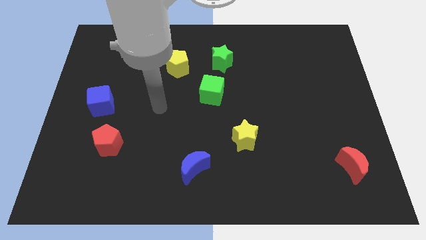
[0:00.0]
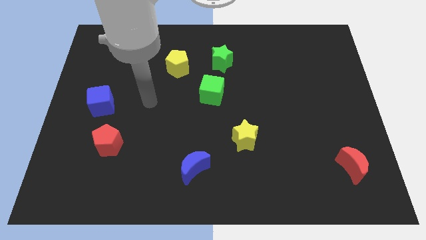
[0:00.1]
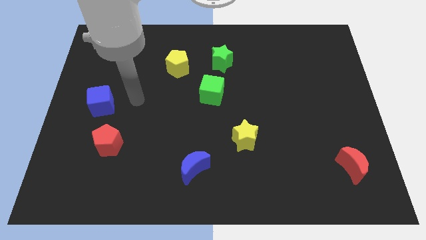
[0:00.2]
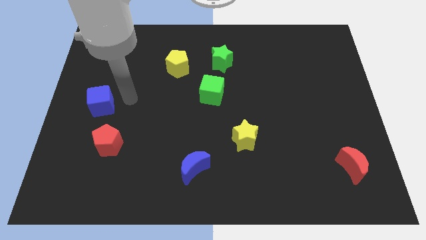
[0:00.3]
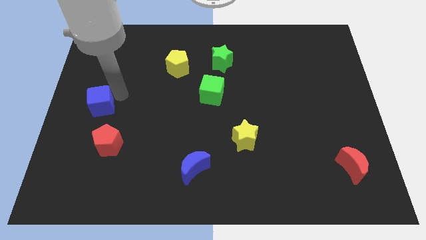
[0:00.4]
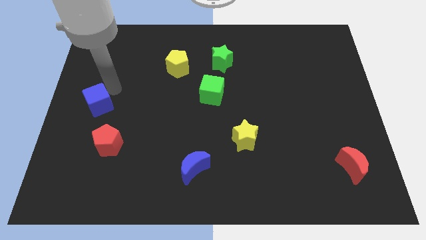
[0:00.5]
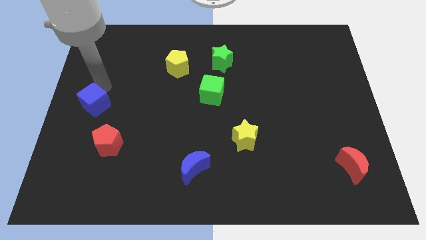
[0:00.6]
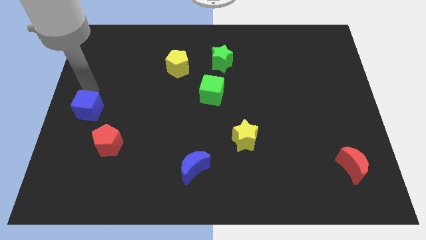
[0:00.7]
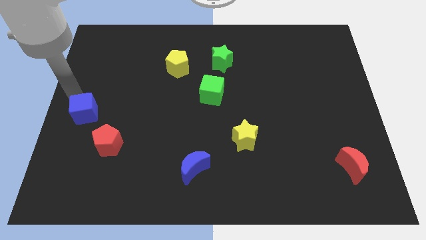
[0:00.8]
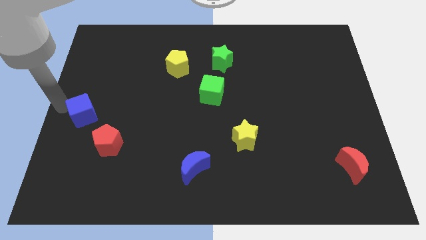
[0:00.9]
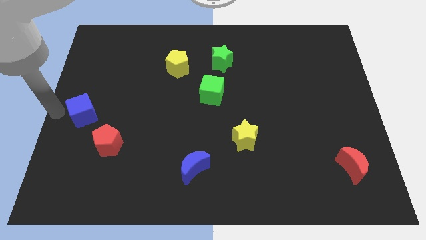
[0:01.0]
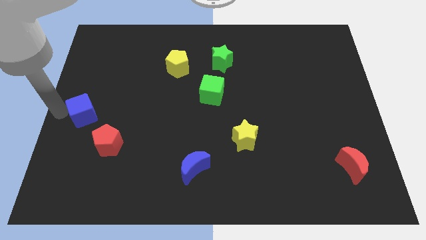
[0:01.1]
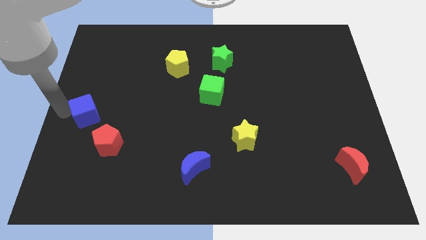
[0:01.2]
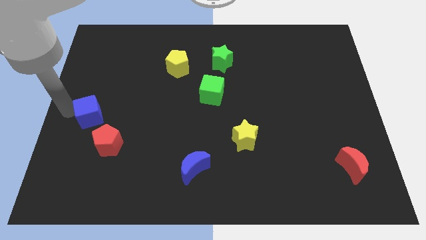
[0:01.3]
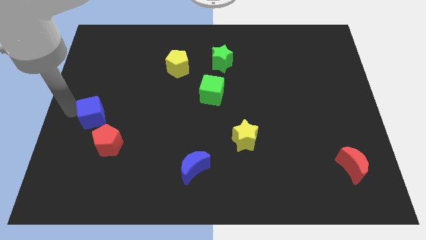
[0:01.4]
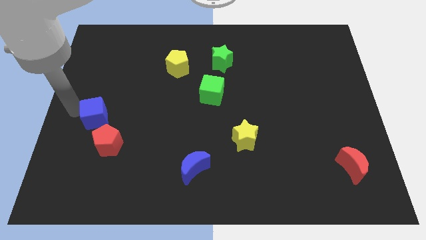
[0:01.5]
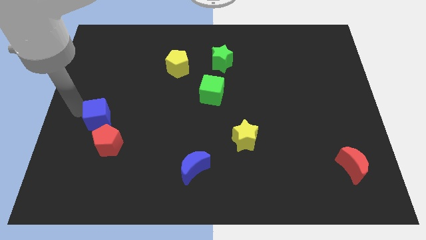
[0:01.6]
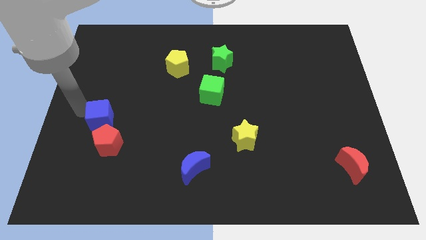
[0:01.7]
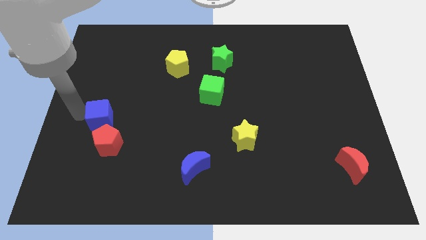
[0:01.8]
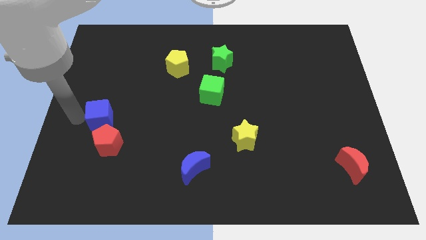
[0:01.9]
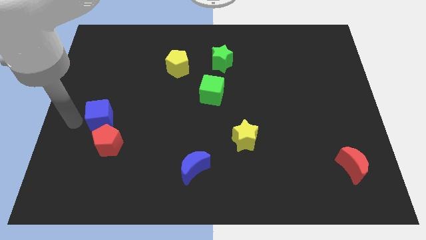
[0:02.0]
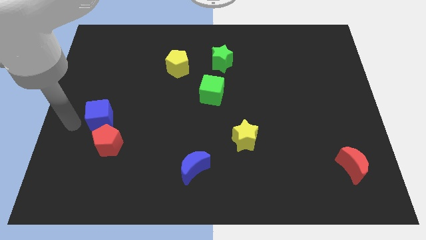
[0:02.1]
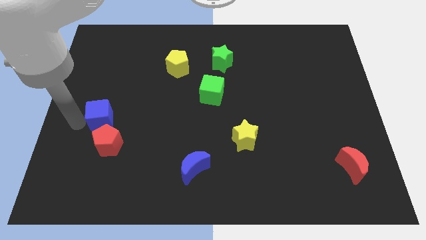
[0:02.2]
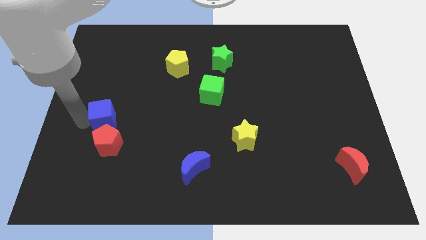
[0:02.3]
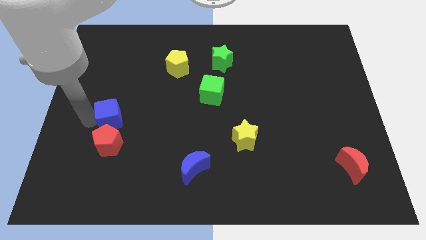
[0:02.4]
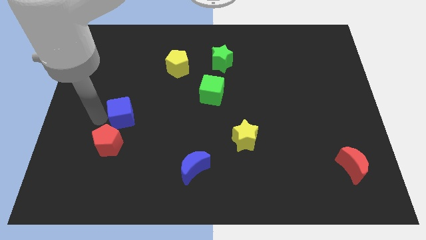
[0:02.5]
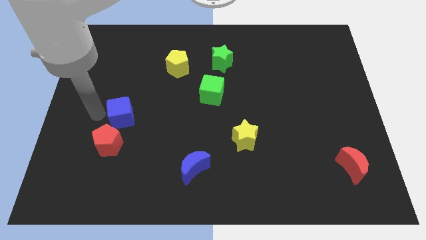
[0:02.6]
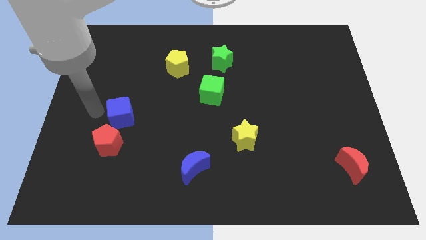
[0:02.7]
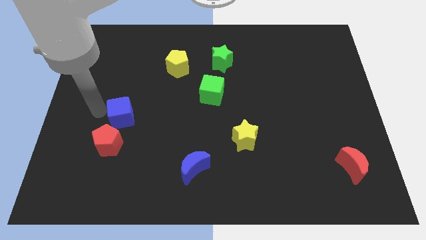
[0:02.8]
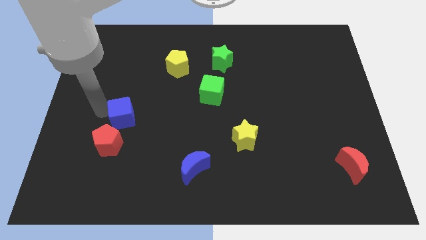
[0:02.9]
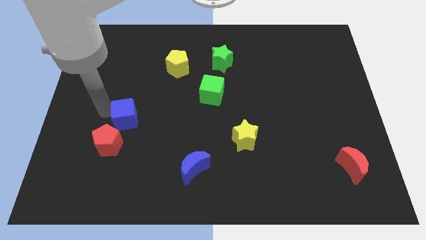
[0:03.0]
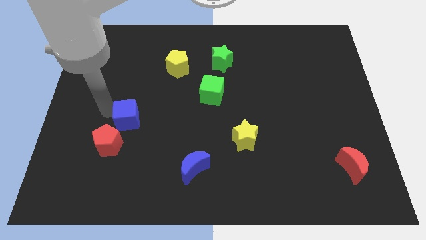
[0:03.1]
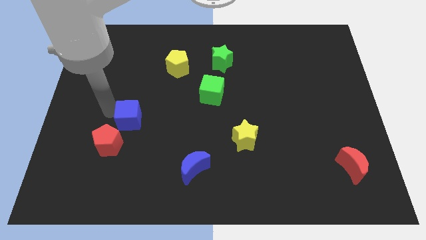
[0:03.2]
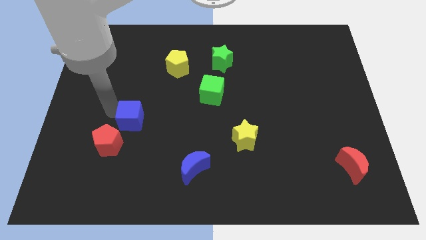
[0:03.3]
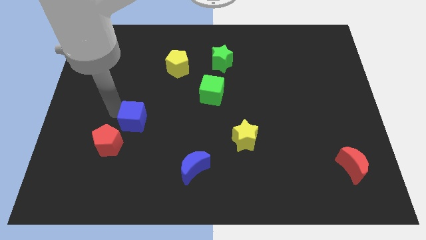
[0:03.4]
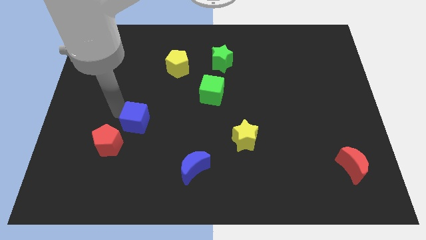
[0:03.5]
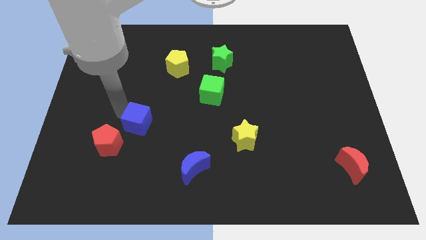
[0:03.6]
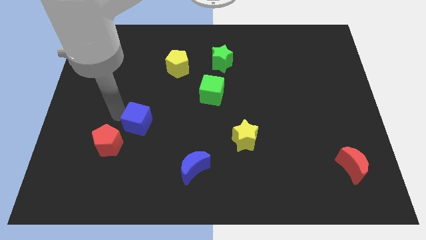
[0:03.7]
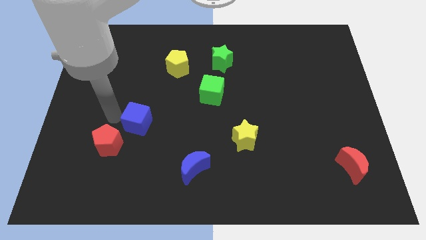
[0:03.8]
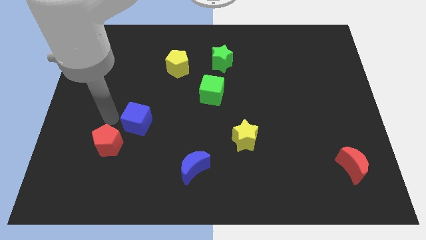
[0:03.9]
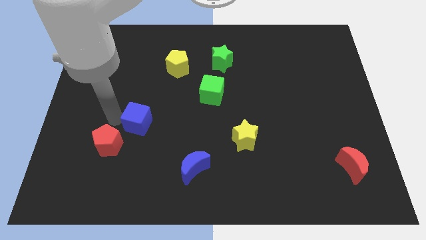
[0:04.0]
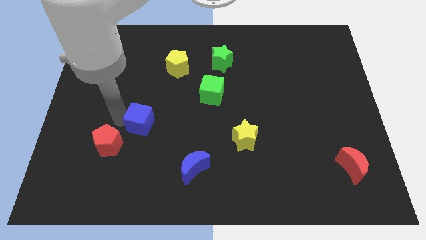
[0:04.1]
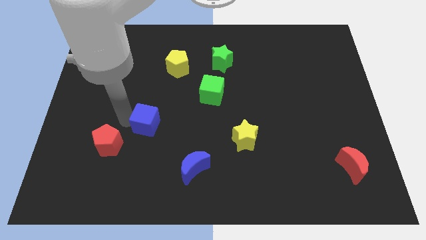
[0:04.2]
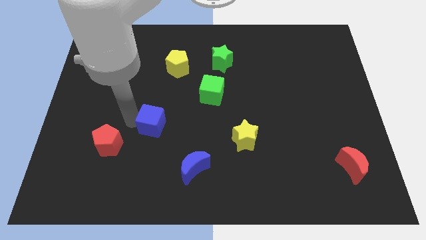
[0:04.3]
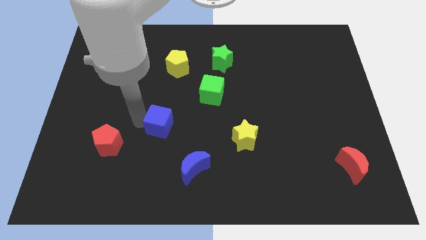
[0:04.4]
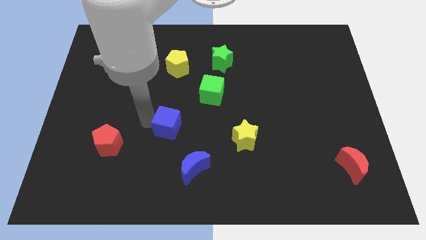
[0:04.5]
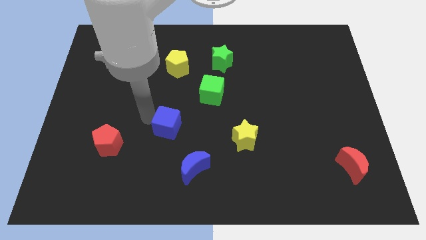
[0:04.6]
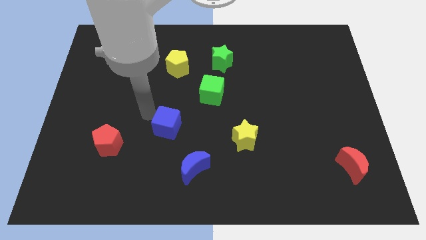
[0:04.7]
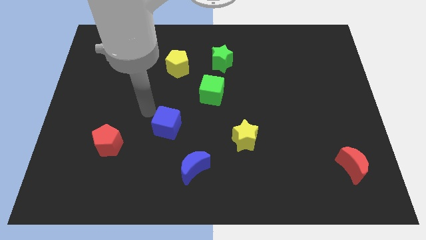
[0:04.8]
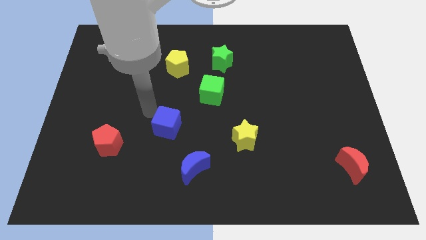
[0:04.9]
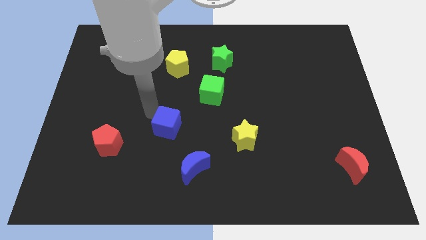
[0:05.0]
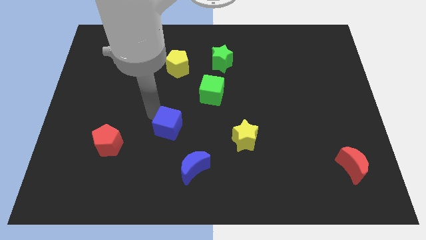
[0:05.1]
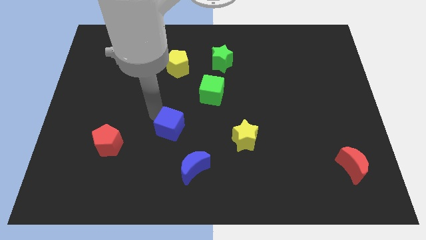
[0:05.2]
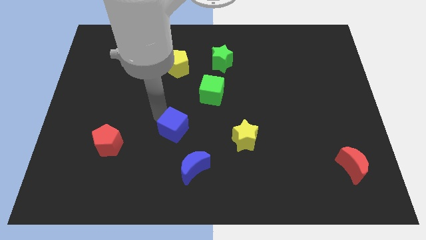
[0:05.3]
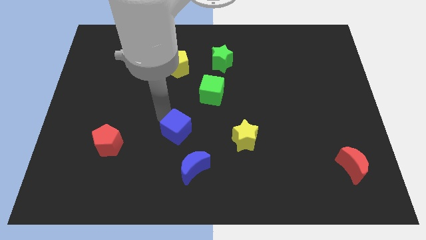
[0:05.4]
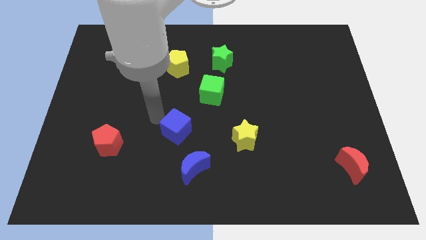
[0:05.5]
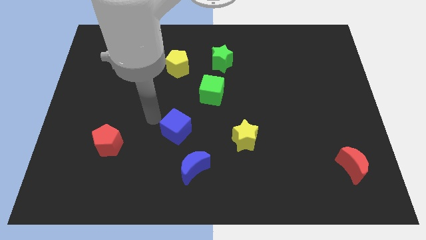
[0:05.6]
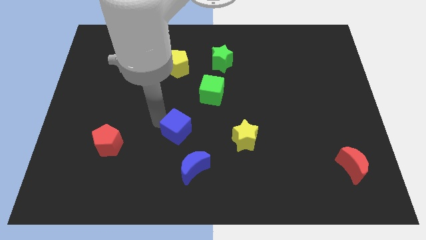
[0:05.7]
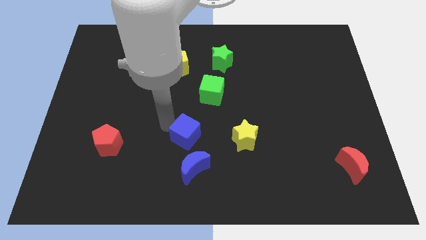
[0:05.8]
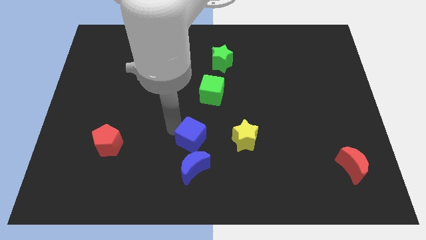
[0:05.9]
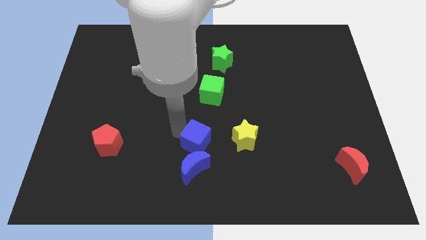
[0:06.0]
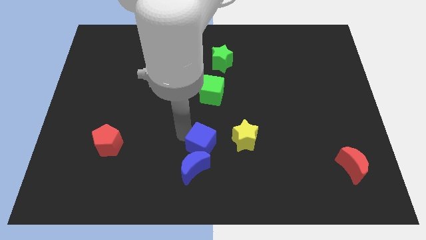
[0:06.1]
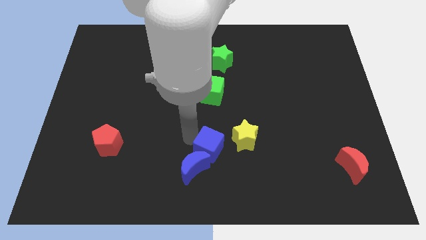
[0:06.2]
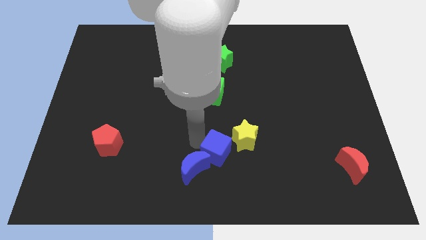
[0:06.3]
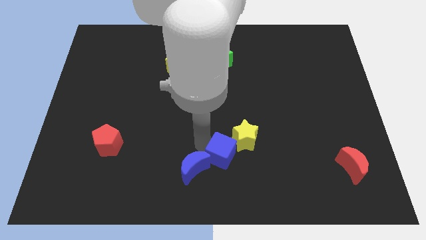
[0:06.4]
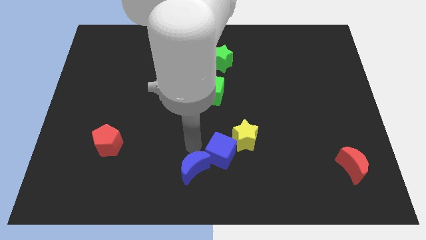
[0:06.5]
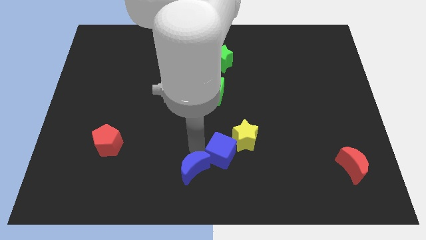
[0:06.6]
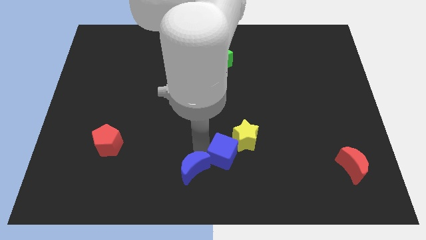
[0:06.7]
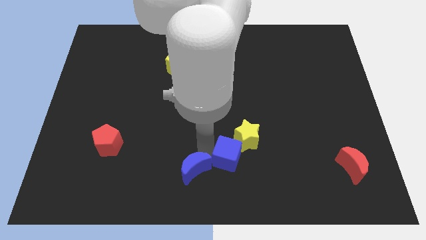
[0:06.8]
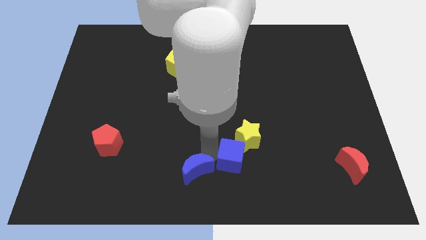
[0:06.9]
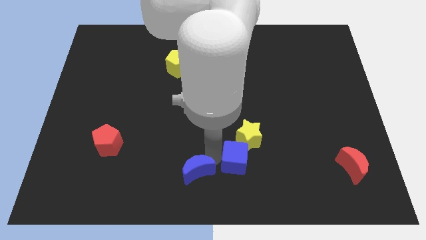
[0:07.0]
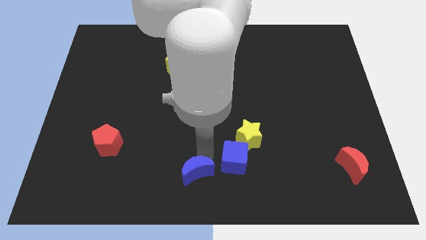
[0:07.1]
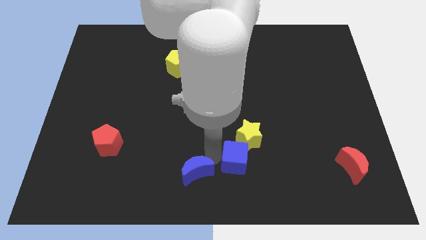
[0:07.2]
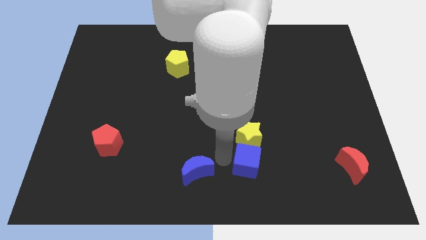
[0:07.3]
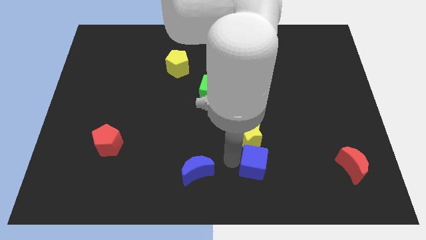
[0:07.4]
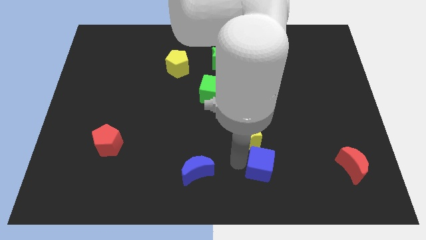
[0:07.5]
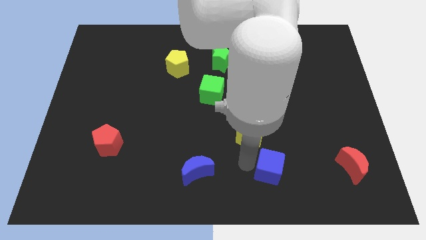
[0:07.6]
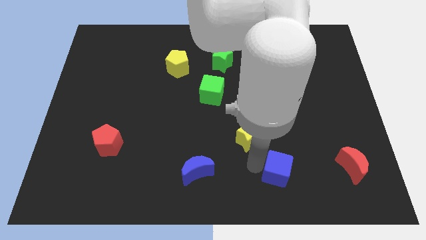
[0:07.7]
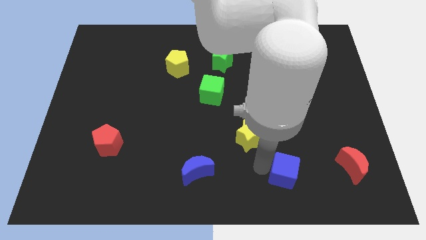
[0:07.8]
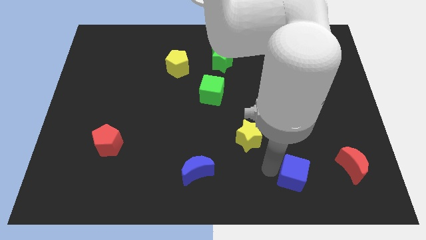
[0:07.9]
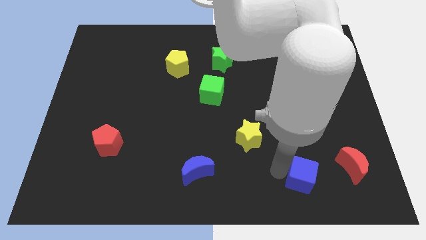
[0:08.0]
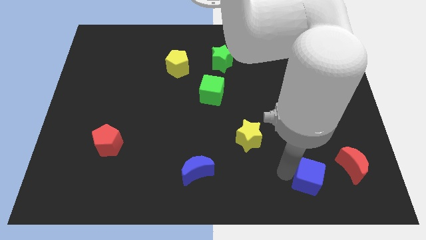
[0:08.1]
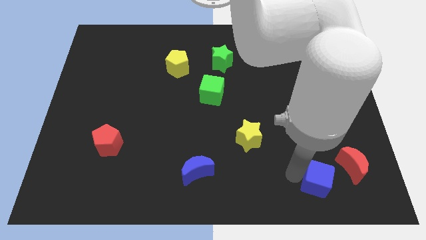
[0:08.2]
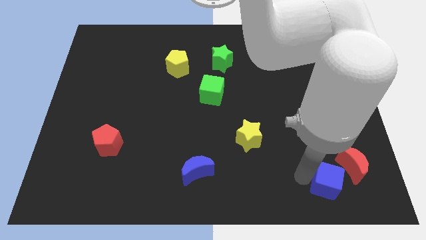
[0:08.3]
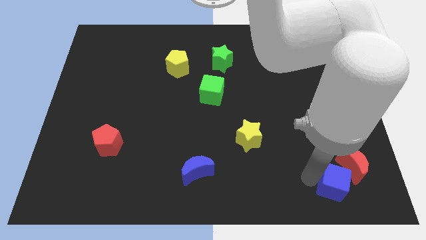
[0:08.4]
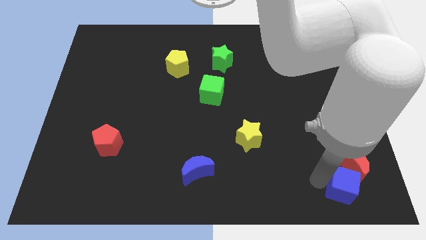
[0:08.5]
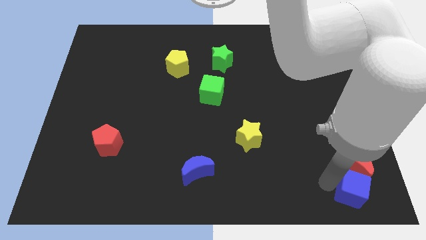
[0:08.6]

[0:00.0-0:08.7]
put the blue cube to the bottom right
